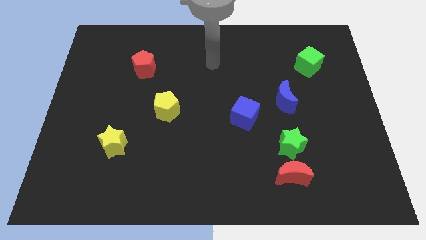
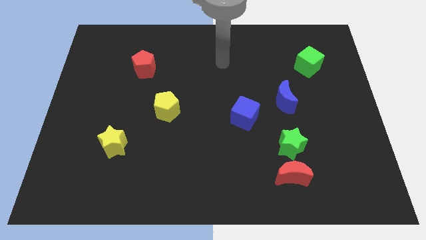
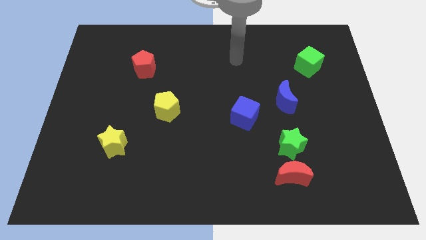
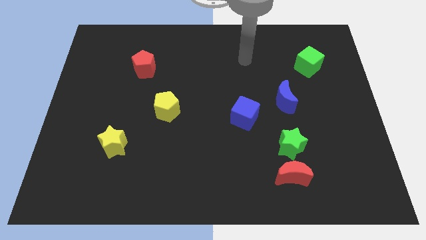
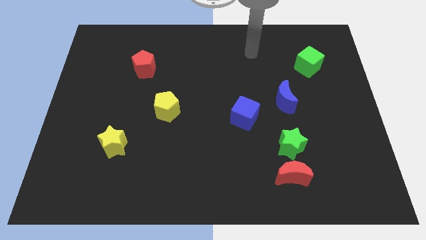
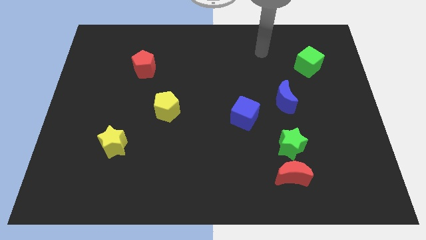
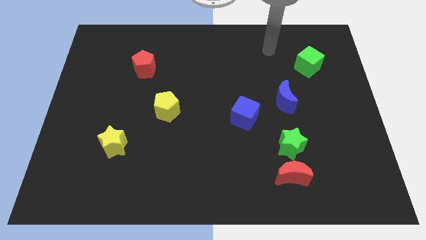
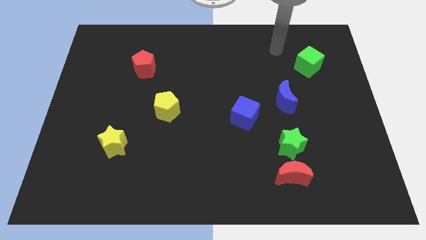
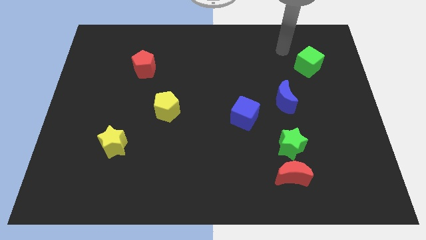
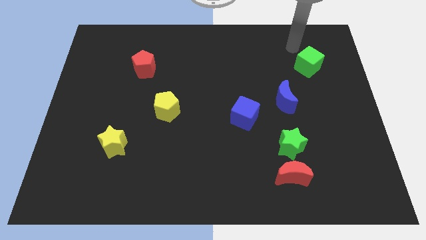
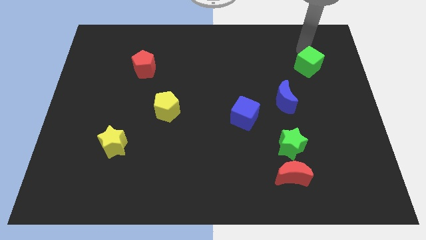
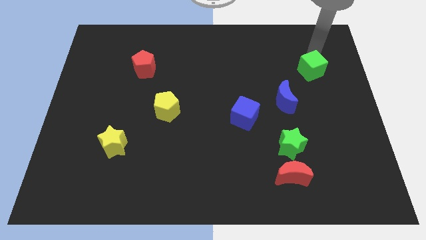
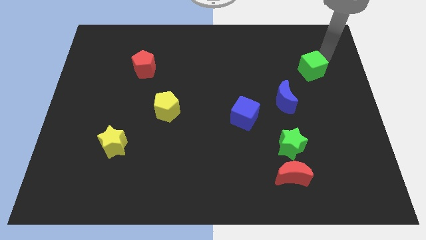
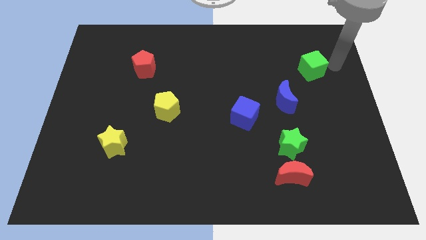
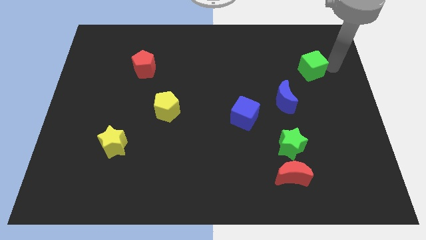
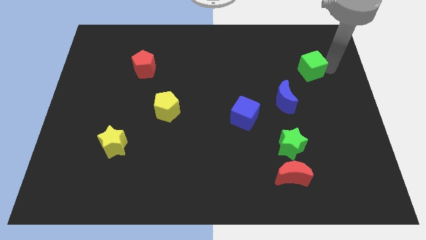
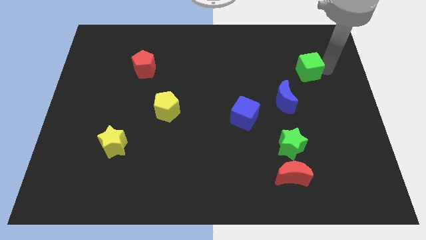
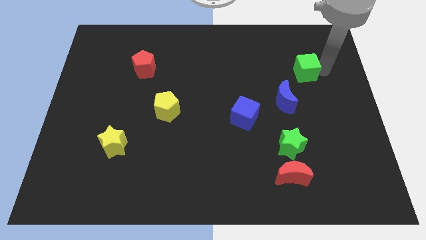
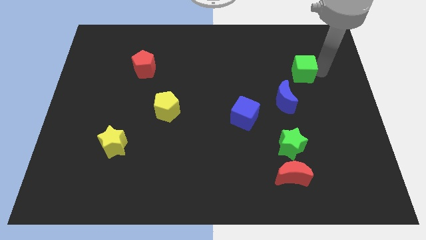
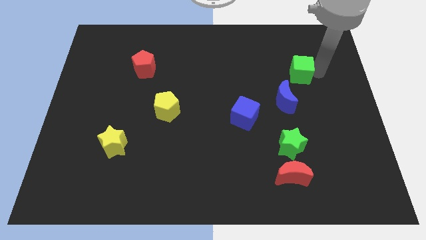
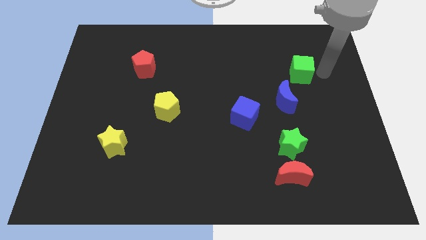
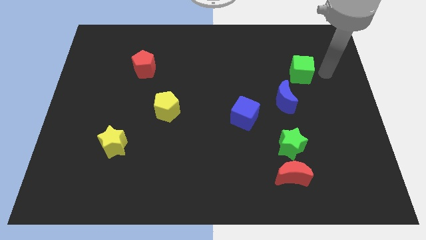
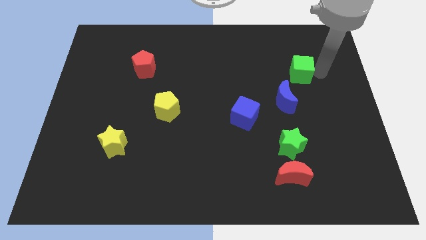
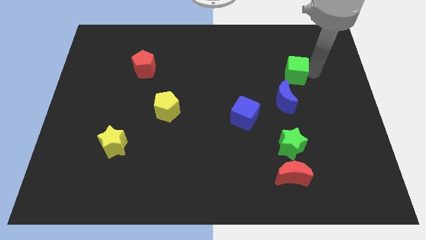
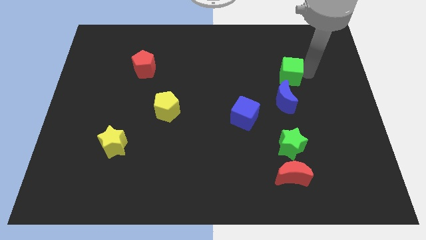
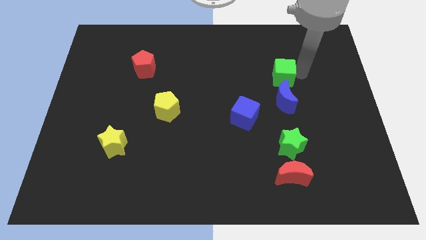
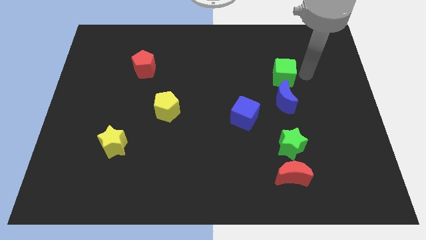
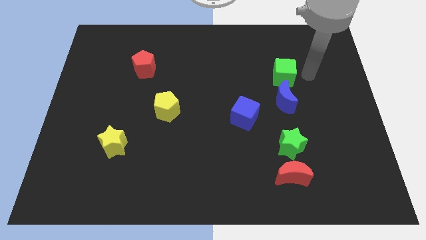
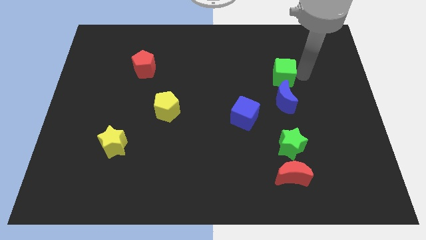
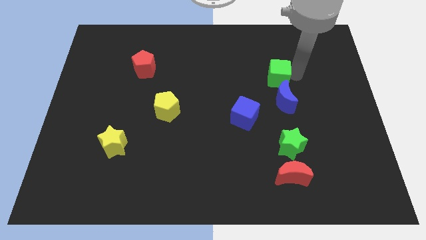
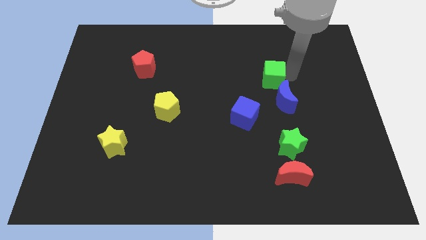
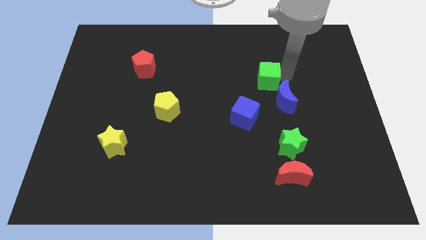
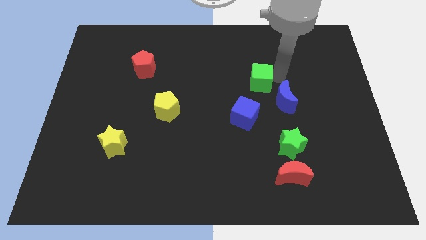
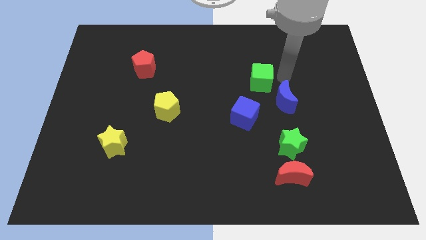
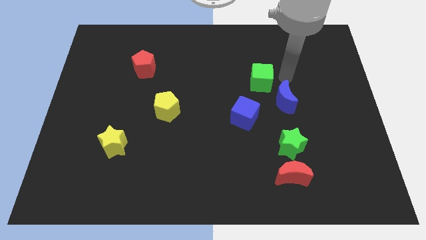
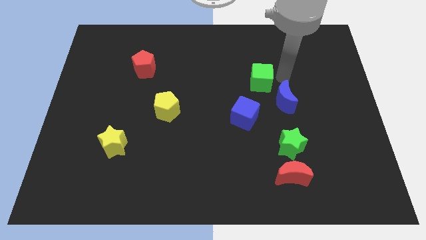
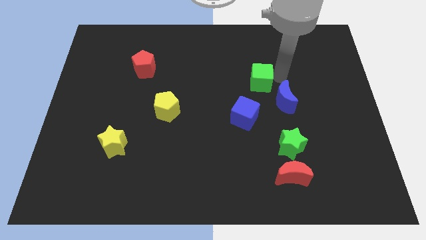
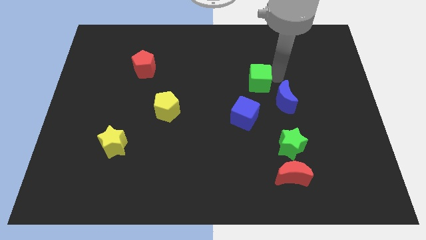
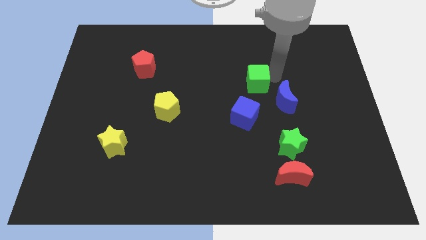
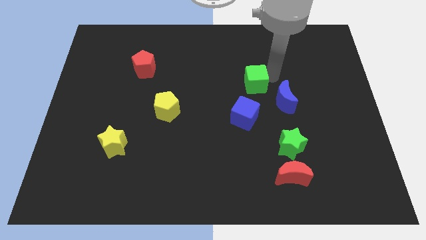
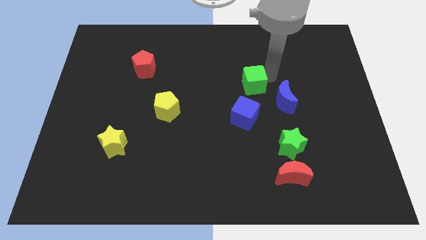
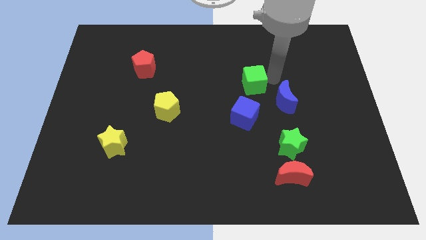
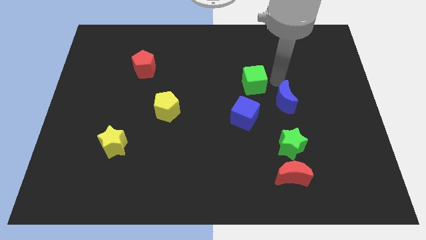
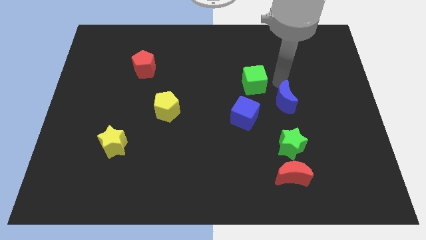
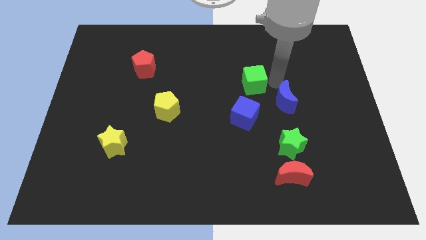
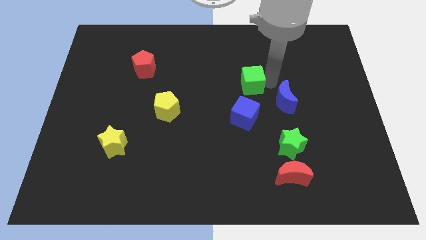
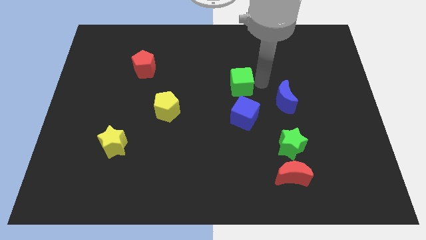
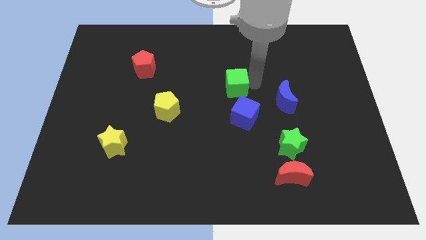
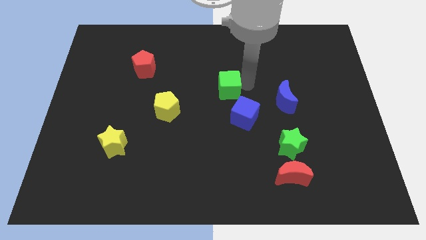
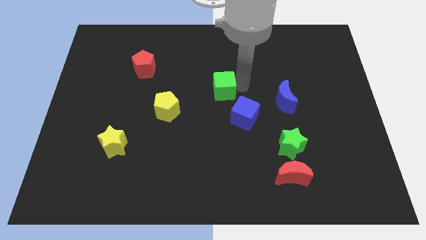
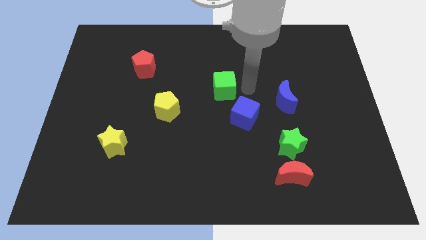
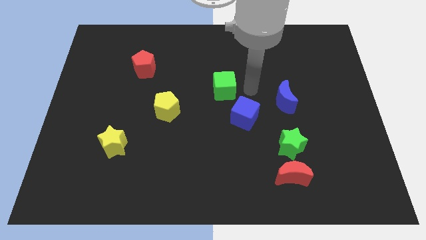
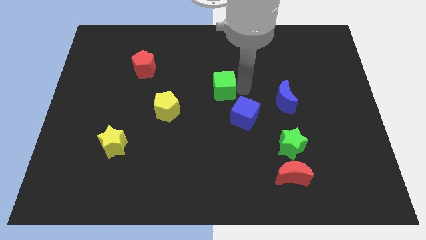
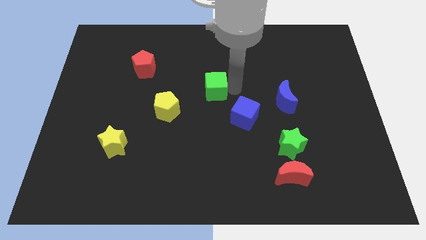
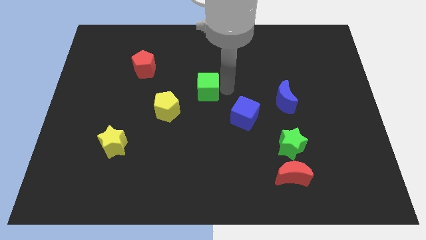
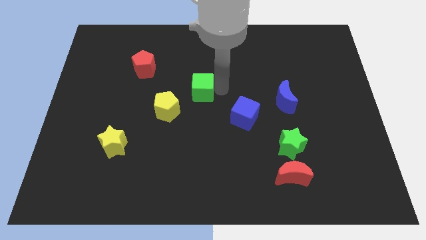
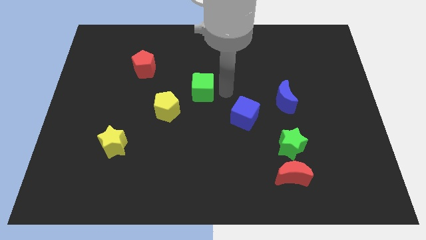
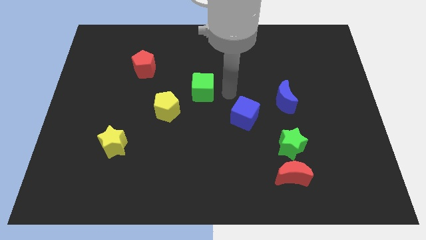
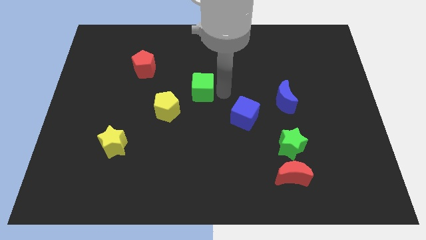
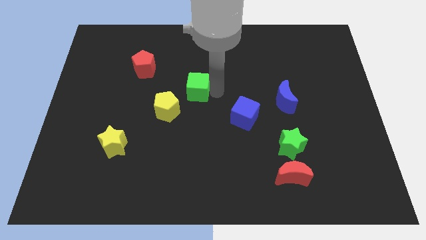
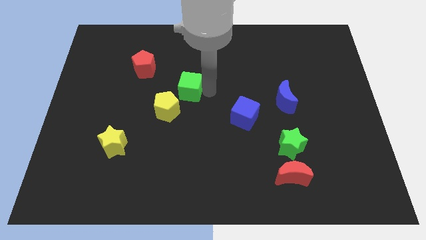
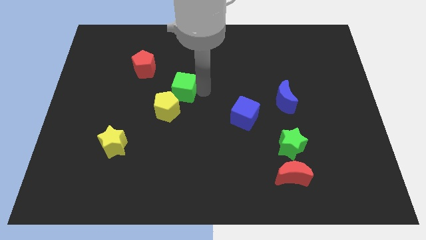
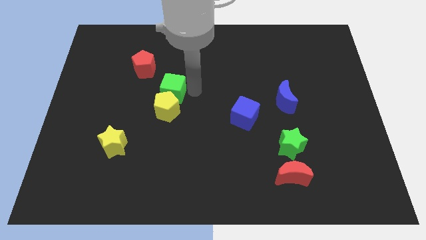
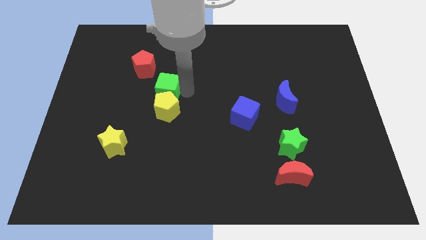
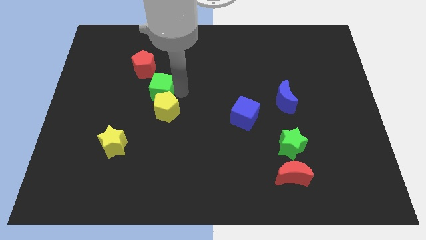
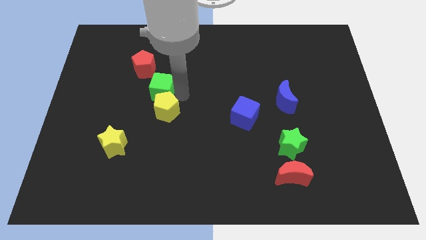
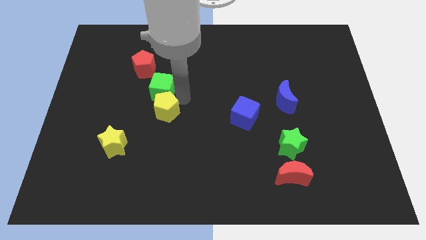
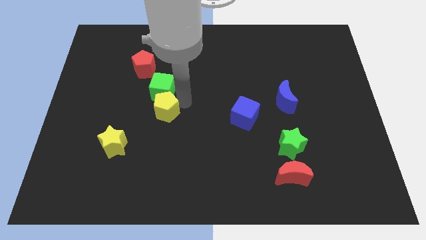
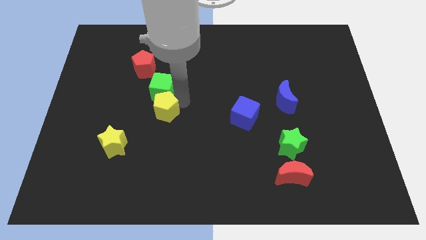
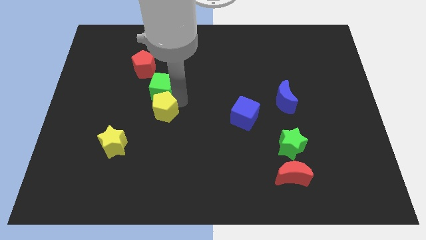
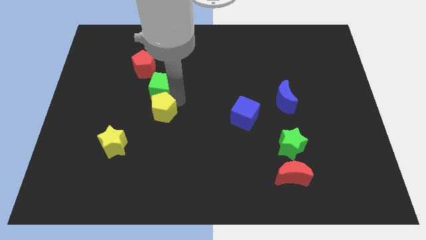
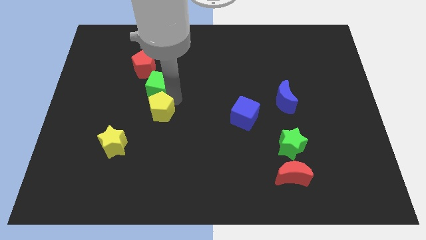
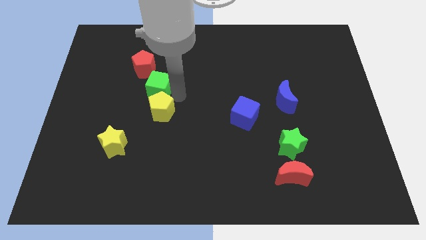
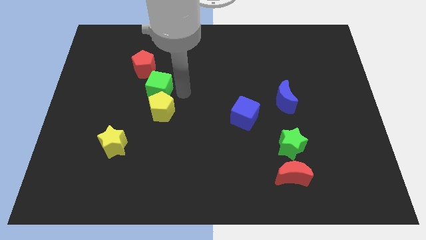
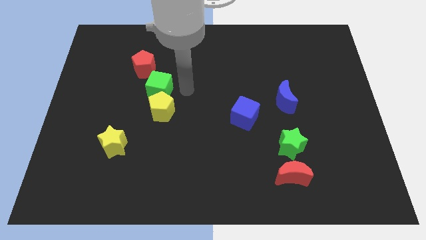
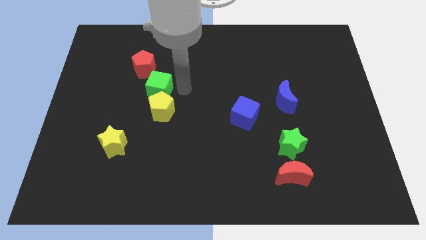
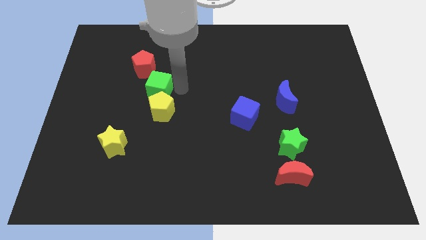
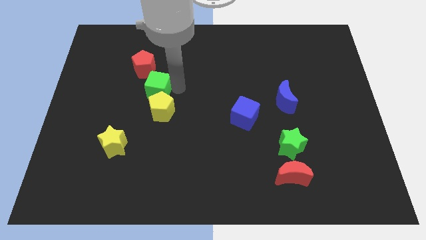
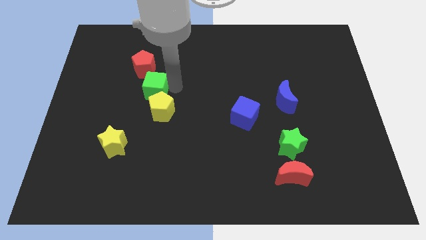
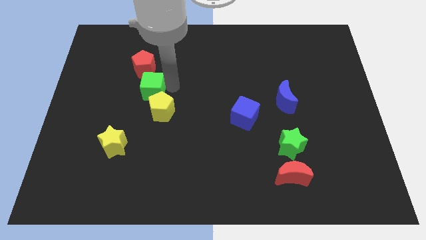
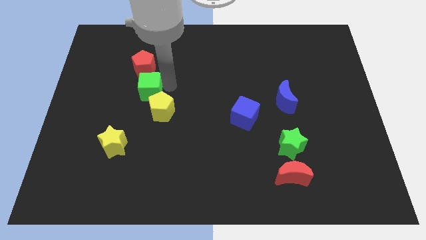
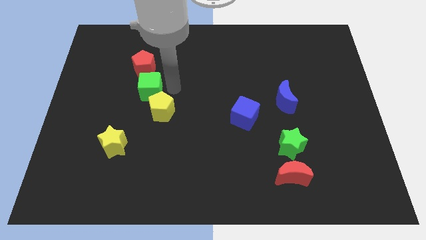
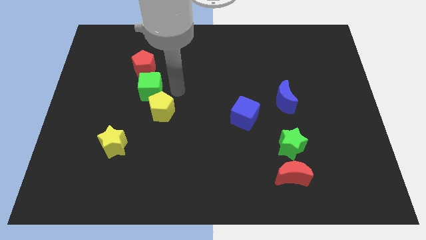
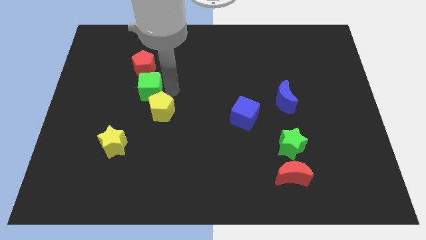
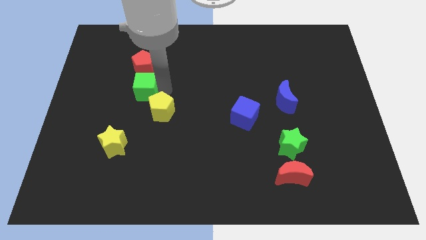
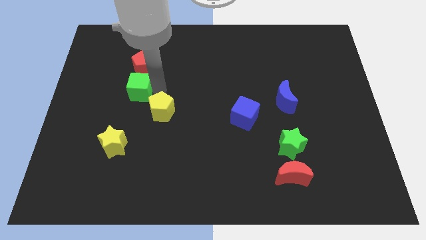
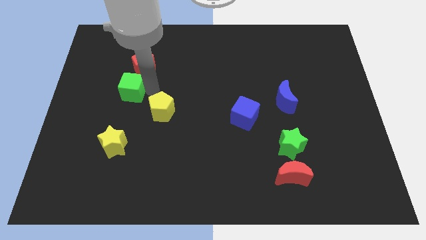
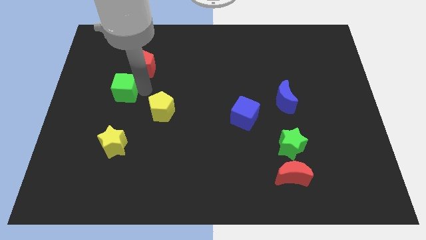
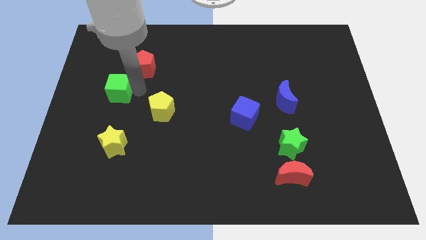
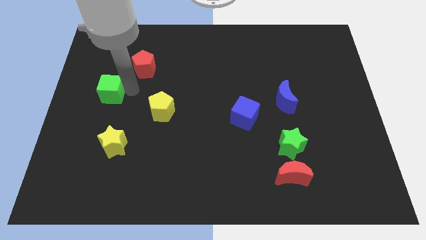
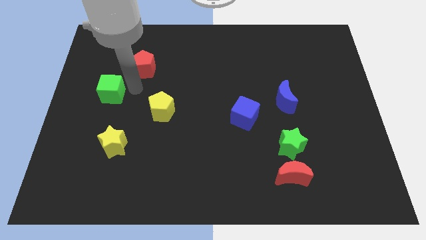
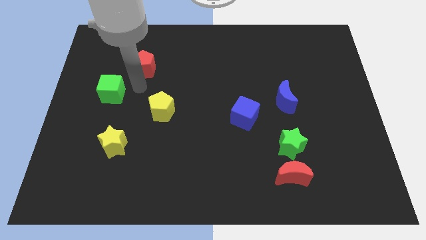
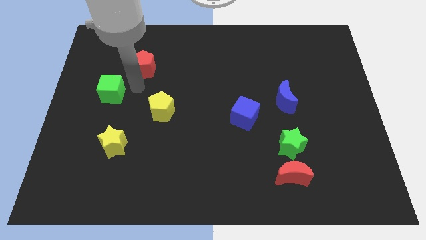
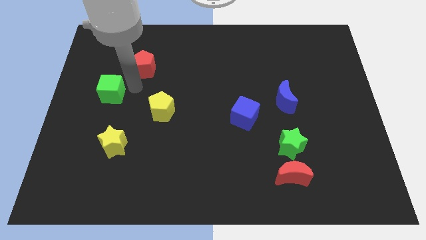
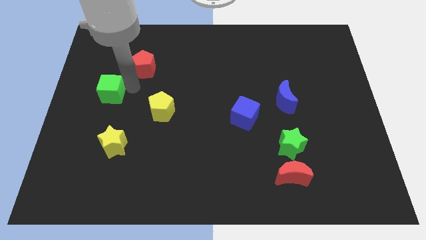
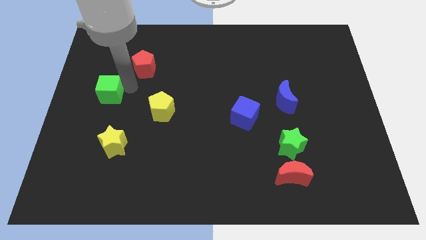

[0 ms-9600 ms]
push the green cube to the left side of the board
